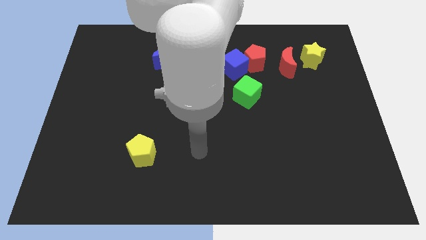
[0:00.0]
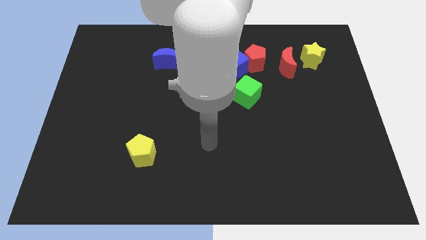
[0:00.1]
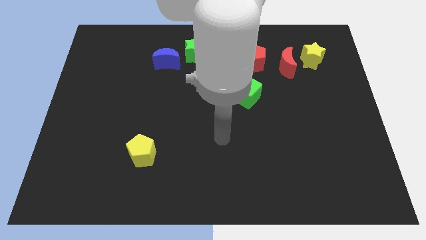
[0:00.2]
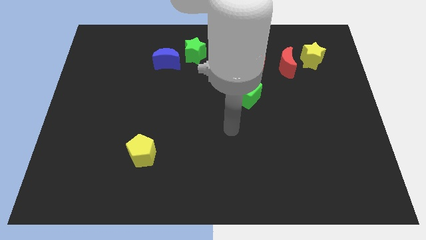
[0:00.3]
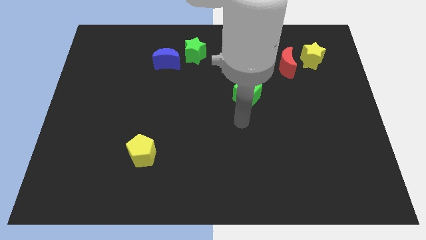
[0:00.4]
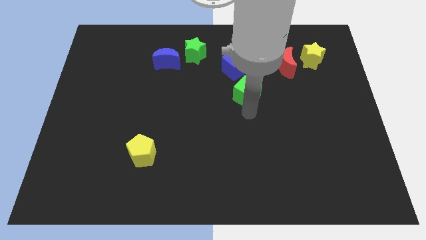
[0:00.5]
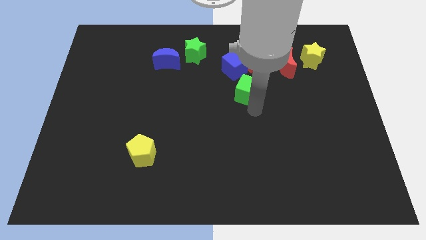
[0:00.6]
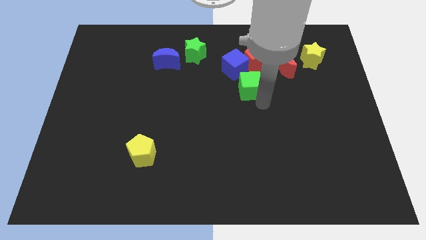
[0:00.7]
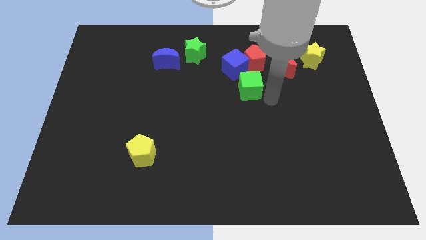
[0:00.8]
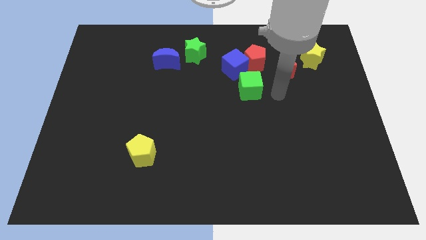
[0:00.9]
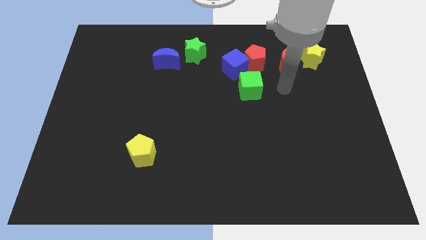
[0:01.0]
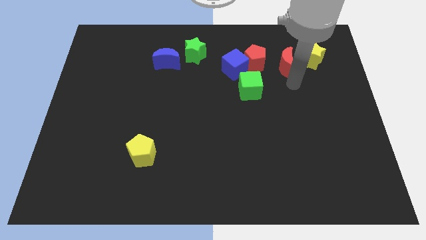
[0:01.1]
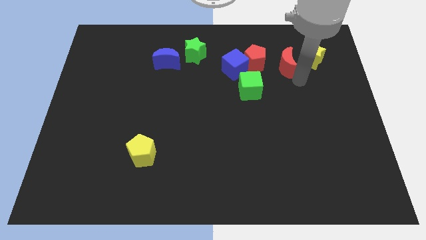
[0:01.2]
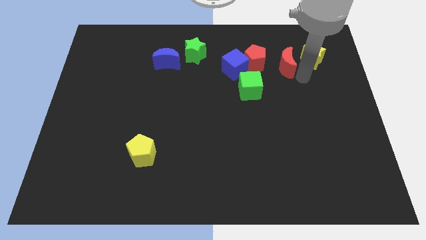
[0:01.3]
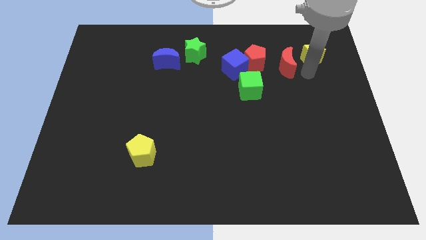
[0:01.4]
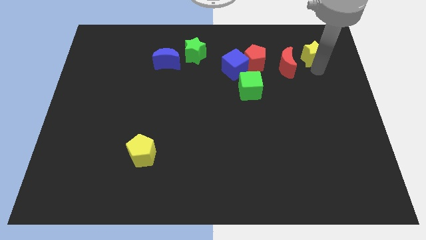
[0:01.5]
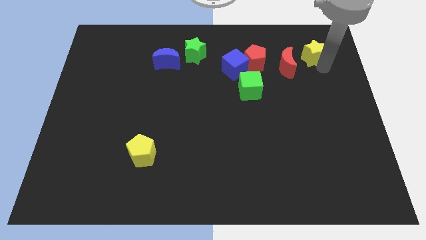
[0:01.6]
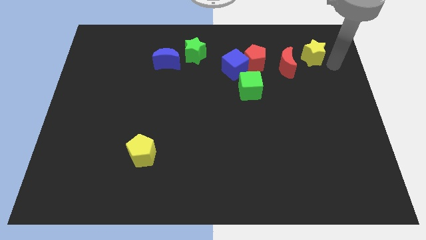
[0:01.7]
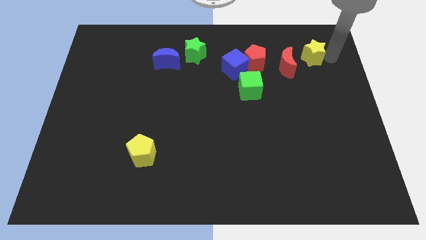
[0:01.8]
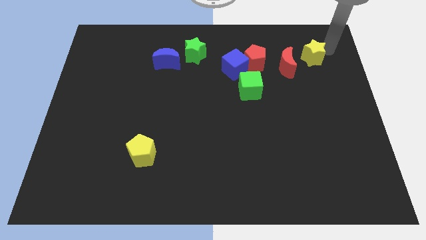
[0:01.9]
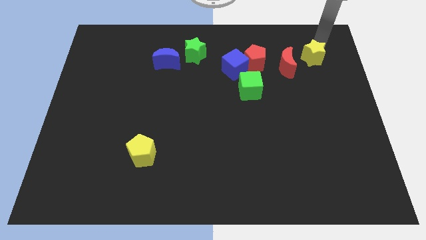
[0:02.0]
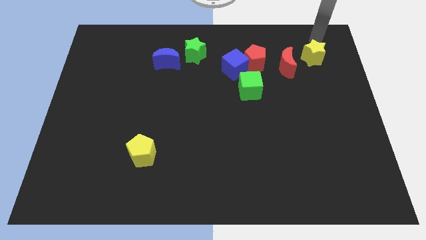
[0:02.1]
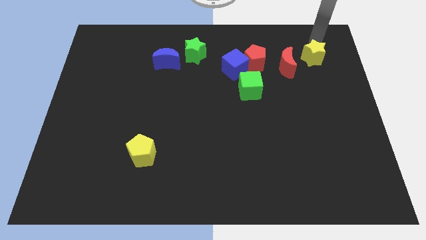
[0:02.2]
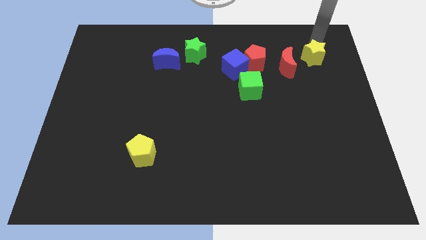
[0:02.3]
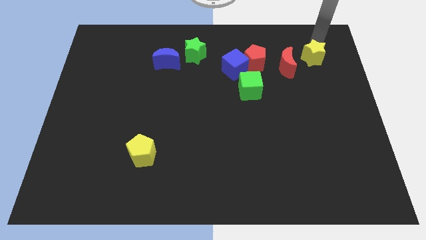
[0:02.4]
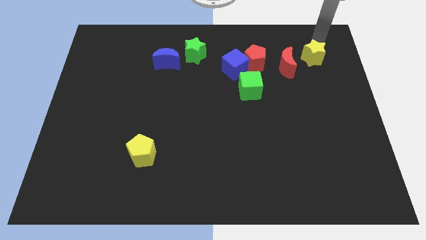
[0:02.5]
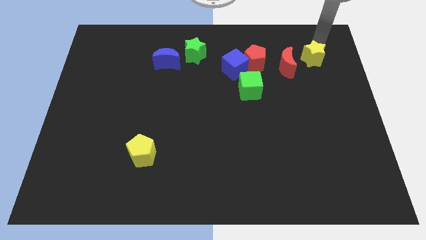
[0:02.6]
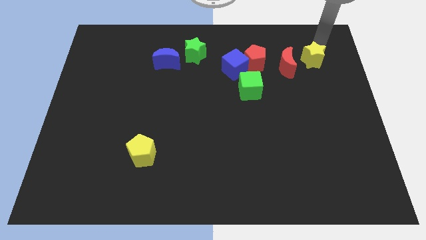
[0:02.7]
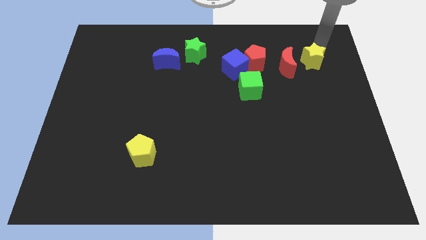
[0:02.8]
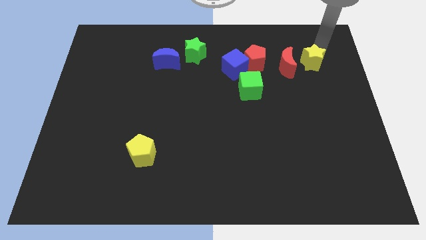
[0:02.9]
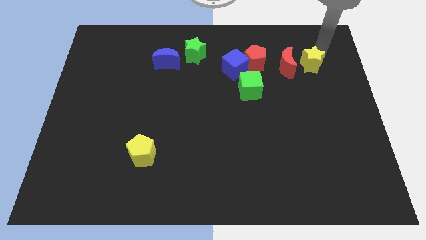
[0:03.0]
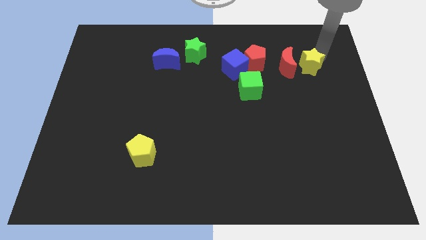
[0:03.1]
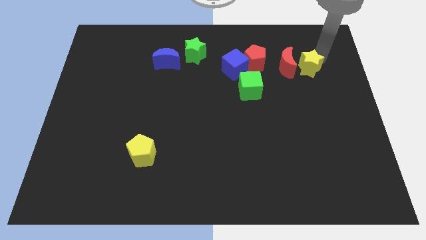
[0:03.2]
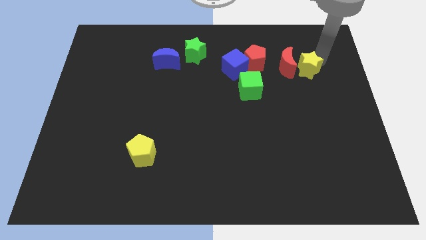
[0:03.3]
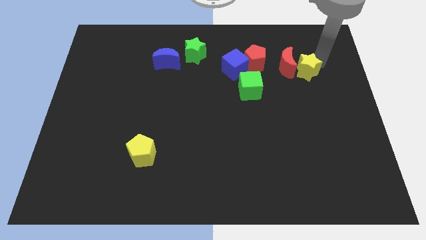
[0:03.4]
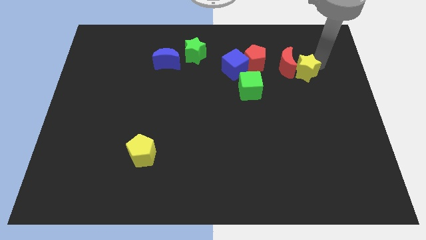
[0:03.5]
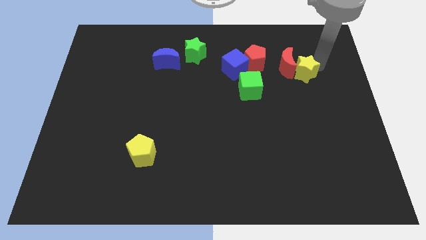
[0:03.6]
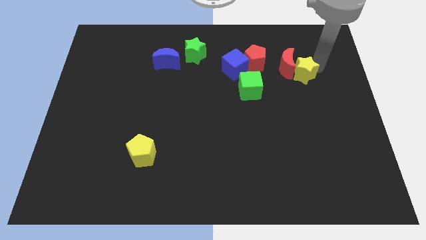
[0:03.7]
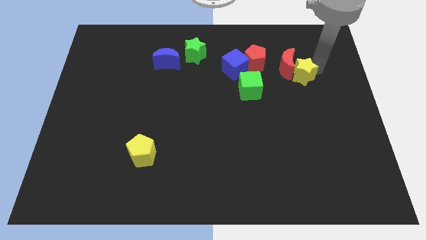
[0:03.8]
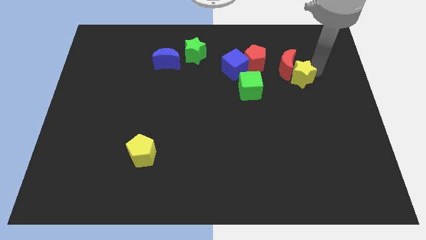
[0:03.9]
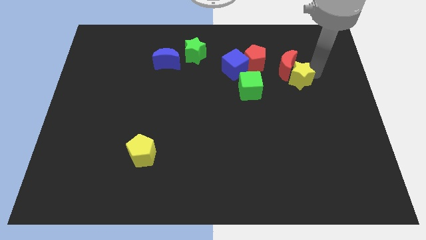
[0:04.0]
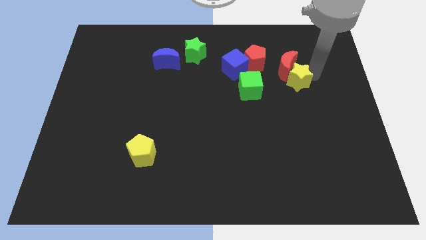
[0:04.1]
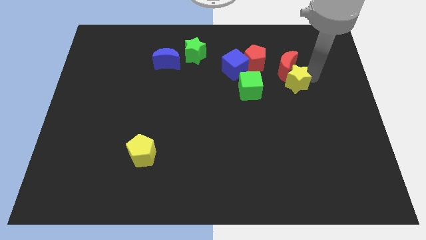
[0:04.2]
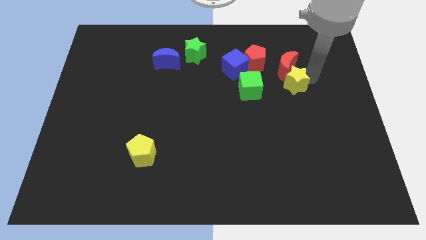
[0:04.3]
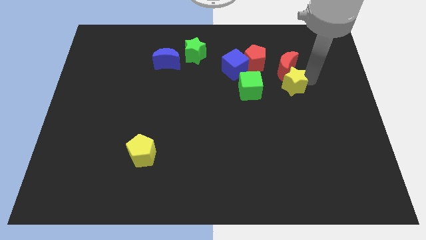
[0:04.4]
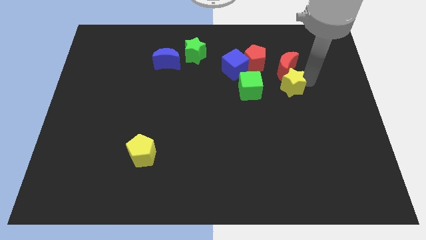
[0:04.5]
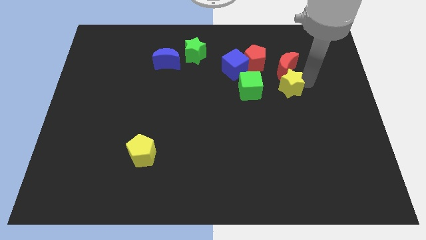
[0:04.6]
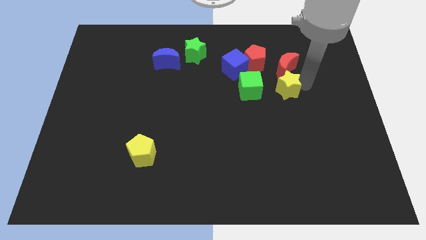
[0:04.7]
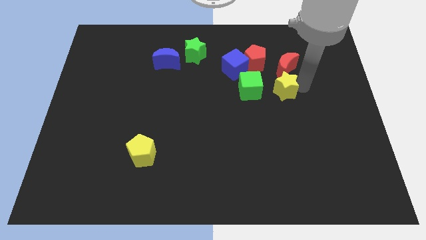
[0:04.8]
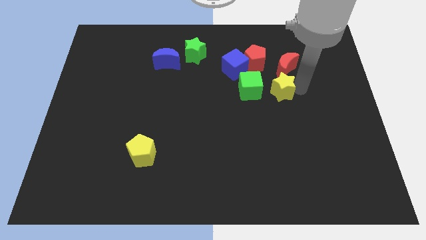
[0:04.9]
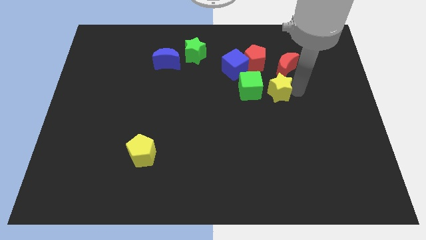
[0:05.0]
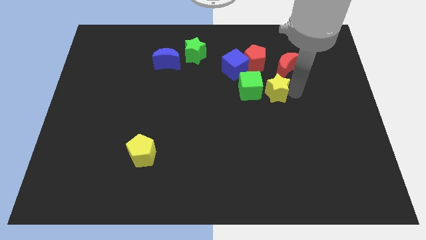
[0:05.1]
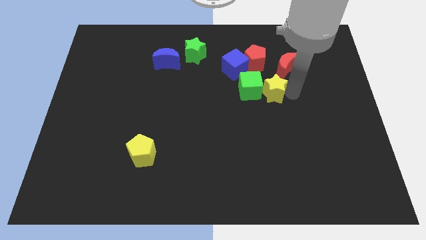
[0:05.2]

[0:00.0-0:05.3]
put the yellow star next to the green cube

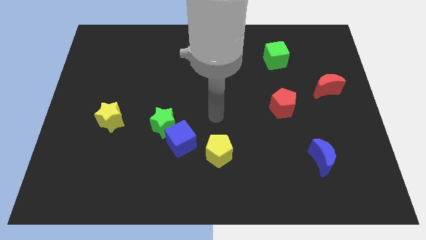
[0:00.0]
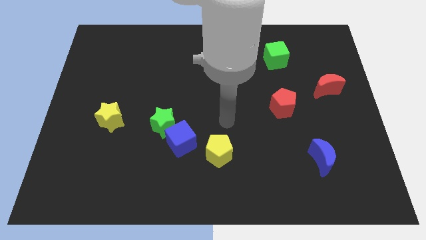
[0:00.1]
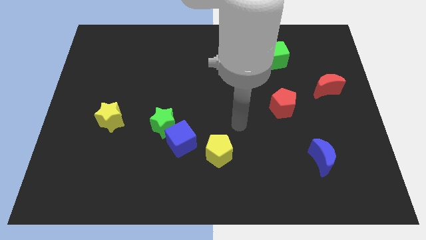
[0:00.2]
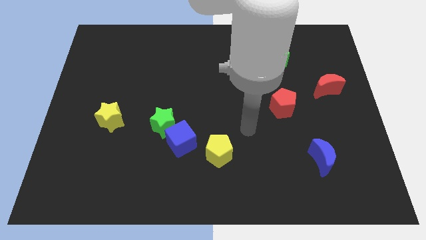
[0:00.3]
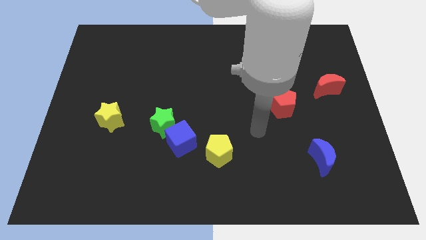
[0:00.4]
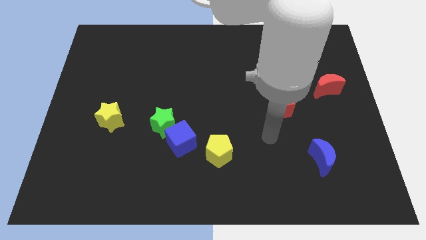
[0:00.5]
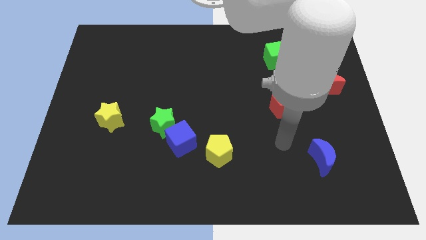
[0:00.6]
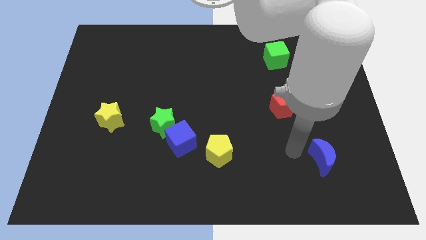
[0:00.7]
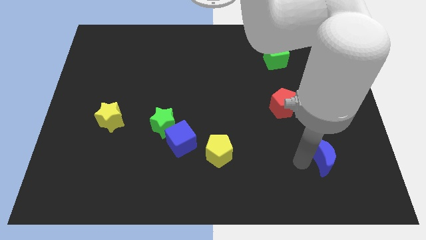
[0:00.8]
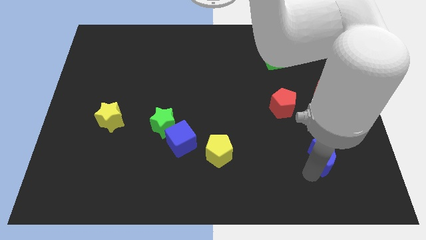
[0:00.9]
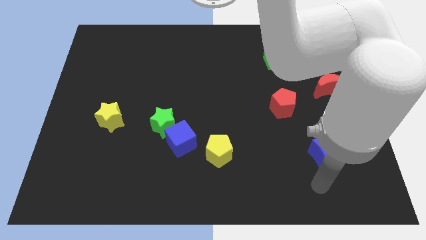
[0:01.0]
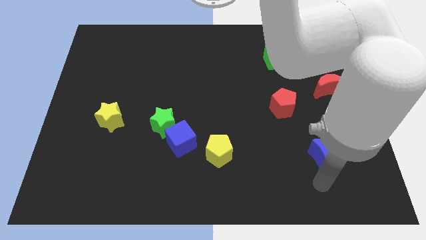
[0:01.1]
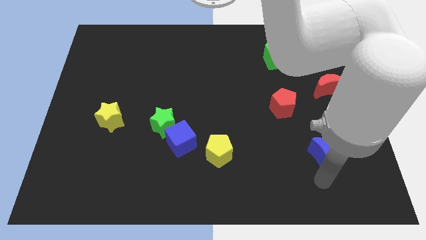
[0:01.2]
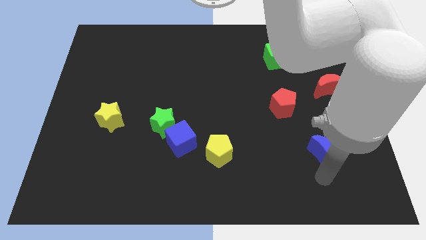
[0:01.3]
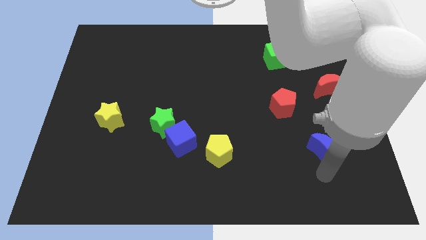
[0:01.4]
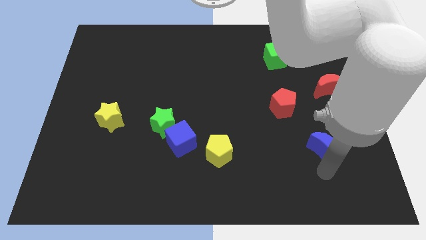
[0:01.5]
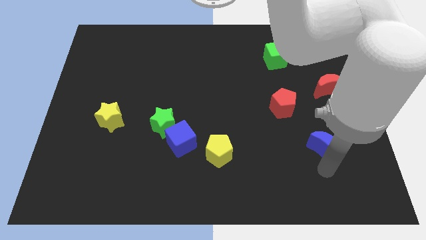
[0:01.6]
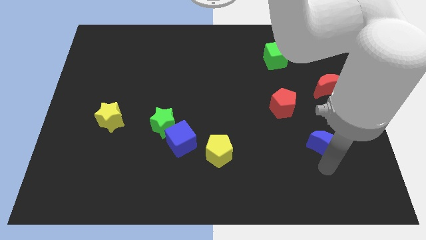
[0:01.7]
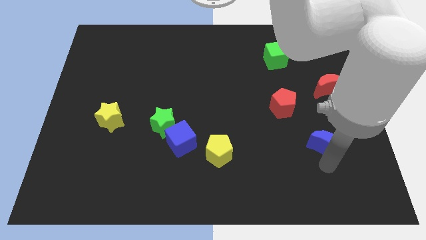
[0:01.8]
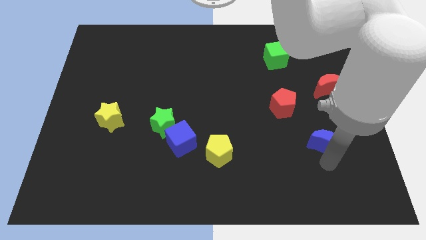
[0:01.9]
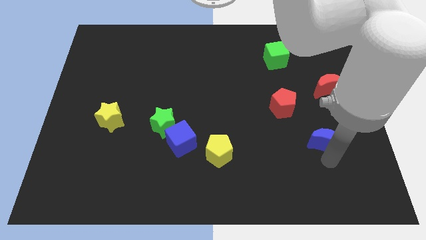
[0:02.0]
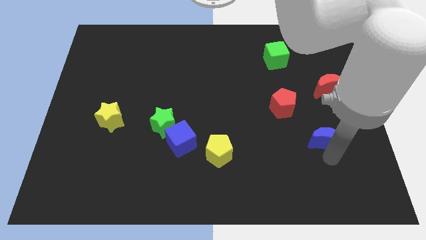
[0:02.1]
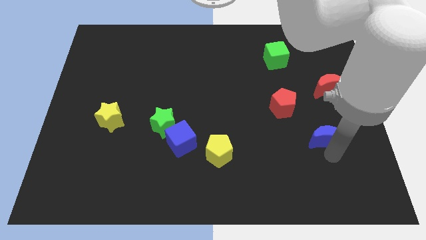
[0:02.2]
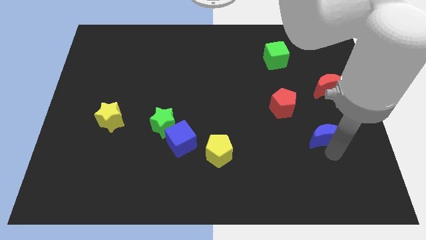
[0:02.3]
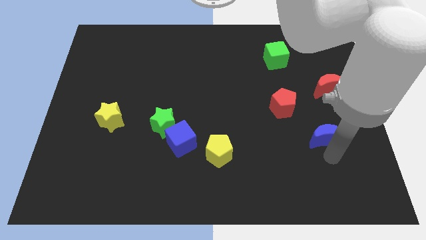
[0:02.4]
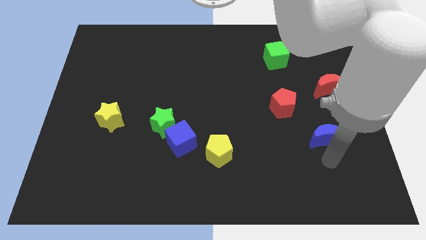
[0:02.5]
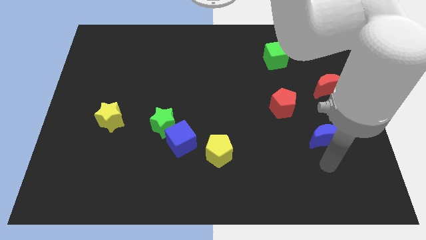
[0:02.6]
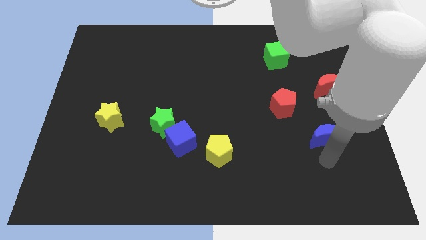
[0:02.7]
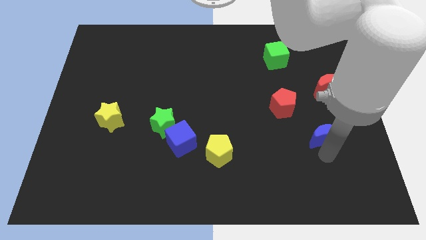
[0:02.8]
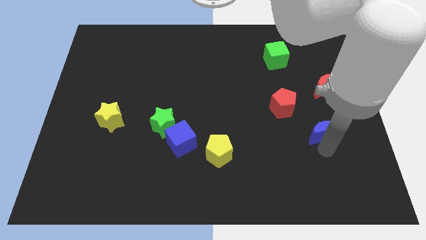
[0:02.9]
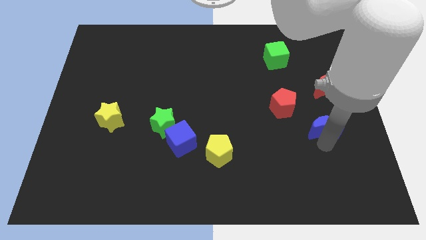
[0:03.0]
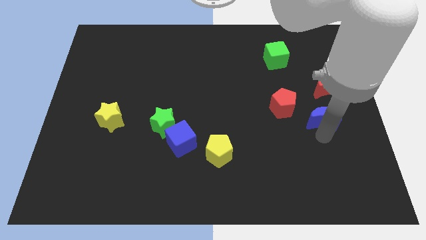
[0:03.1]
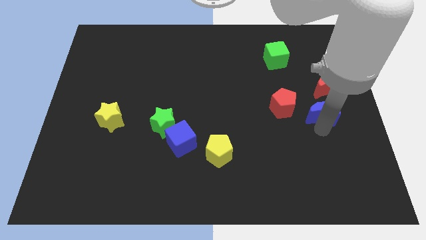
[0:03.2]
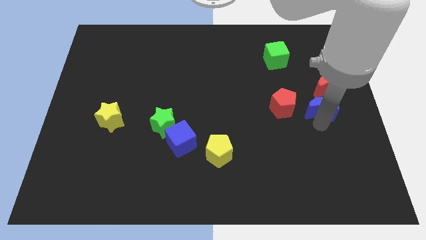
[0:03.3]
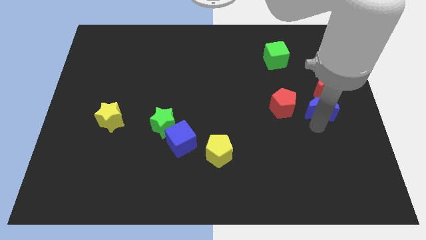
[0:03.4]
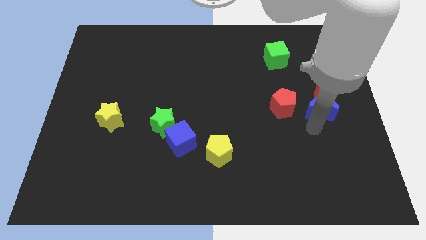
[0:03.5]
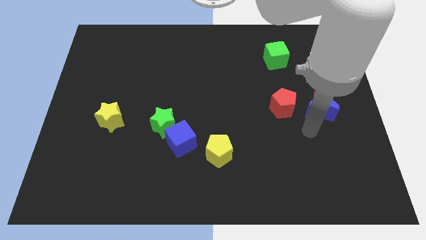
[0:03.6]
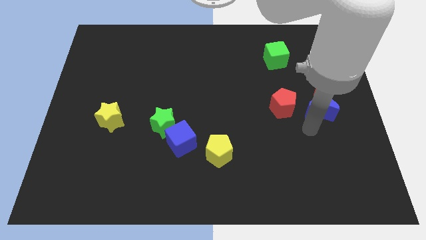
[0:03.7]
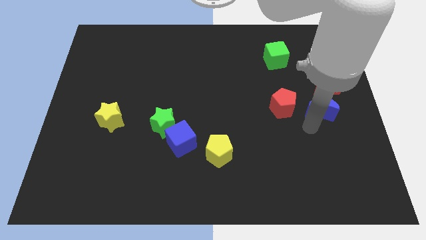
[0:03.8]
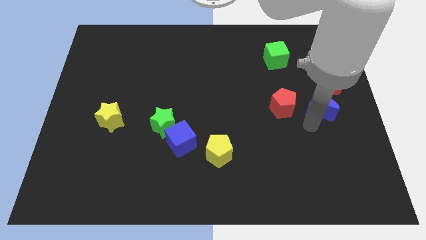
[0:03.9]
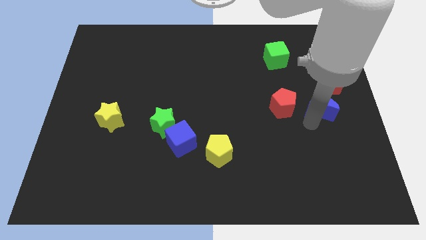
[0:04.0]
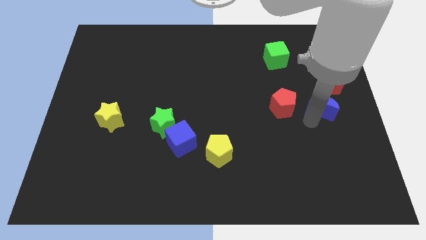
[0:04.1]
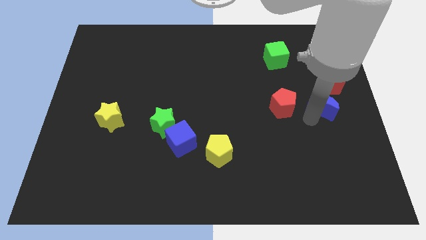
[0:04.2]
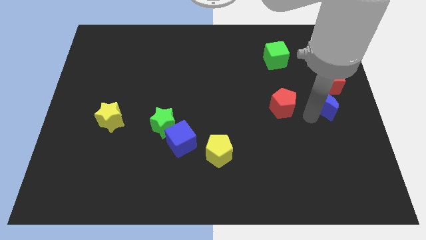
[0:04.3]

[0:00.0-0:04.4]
slide the blue moon next to the red moon
